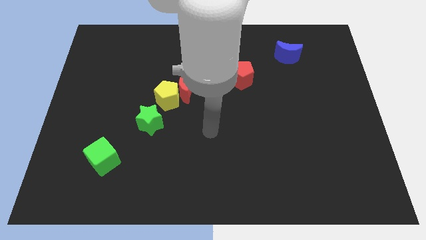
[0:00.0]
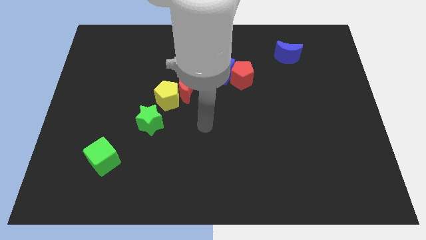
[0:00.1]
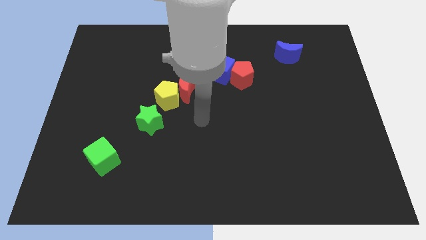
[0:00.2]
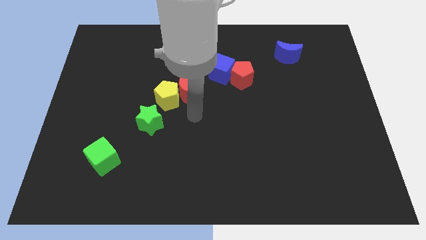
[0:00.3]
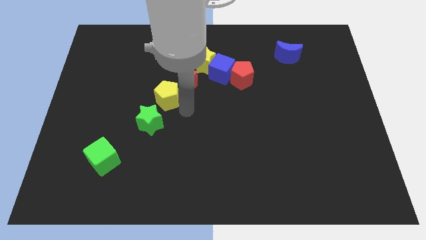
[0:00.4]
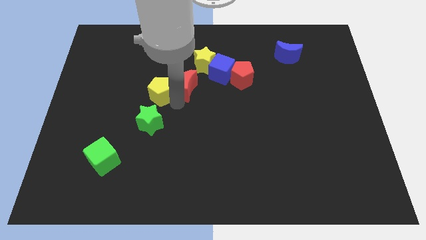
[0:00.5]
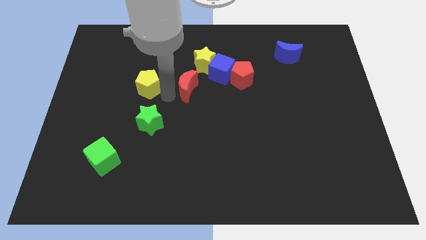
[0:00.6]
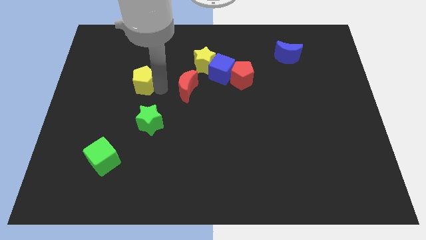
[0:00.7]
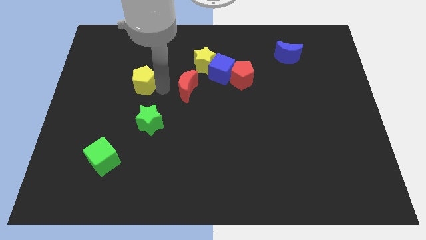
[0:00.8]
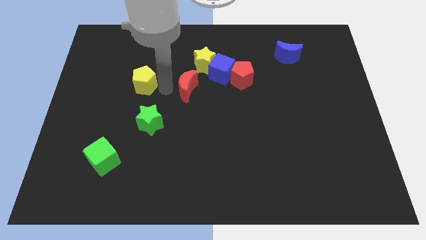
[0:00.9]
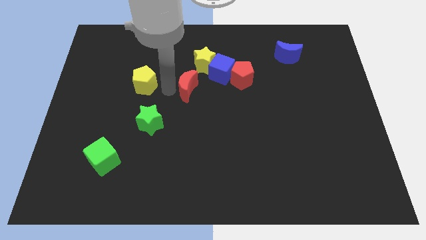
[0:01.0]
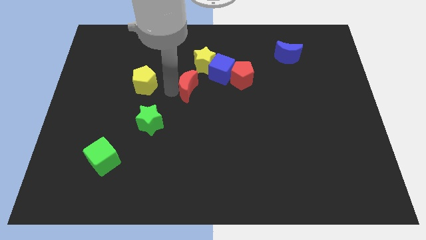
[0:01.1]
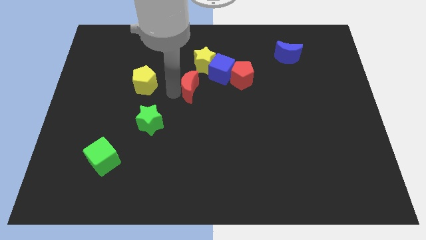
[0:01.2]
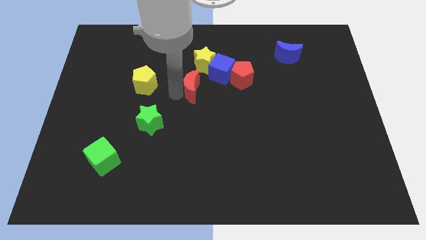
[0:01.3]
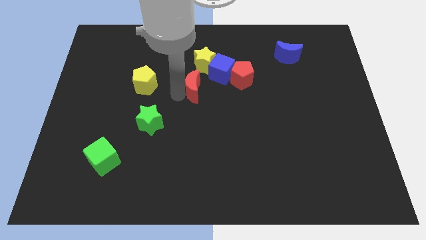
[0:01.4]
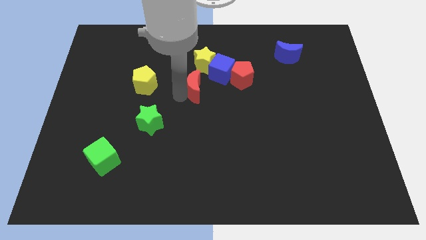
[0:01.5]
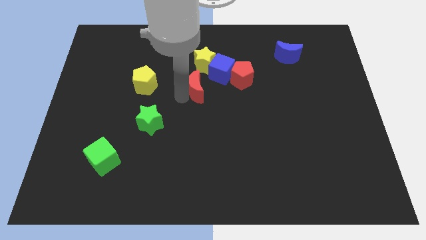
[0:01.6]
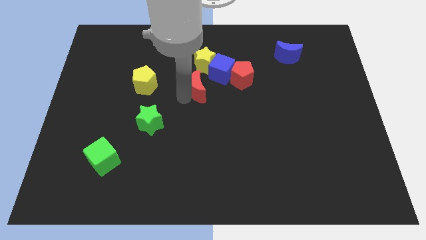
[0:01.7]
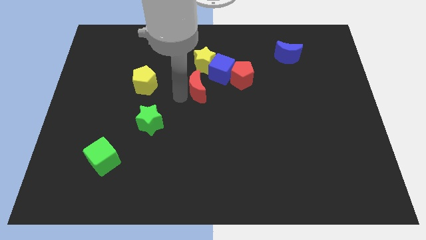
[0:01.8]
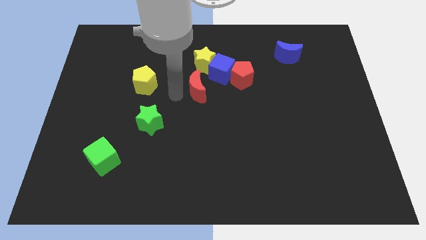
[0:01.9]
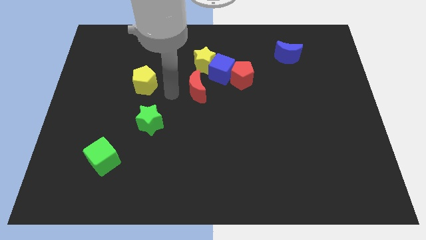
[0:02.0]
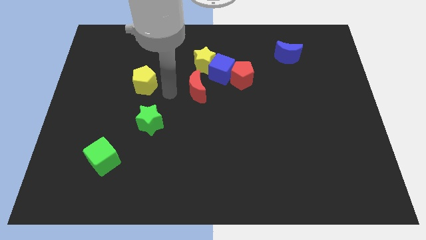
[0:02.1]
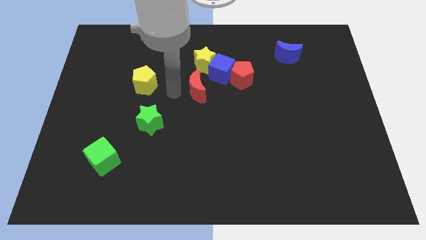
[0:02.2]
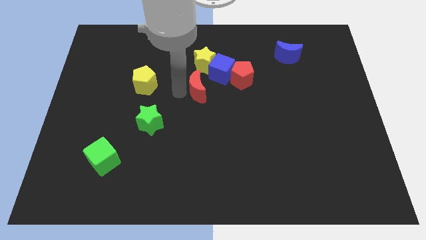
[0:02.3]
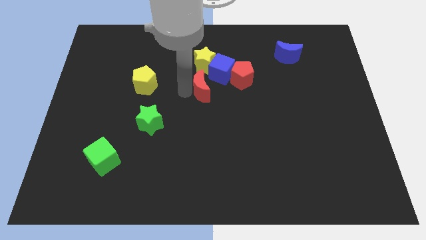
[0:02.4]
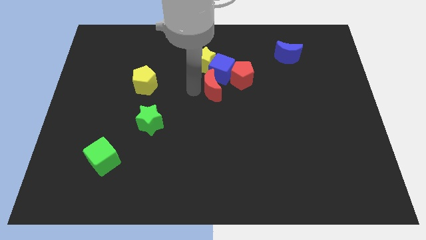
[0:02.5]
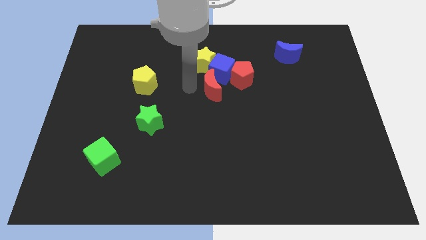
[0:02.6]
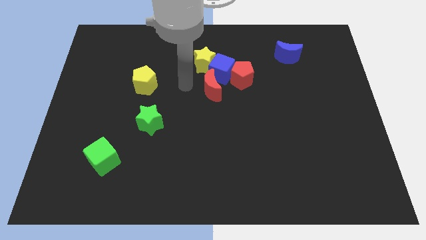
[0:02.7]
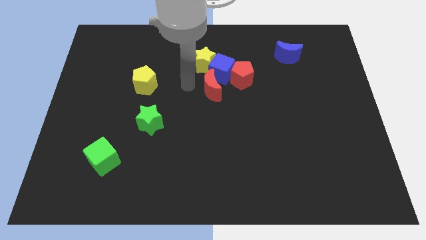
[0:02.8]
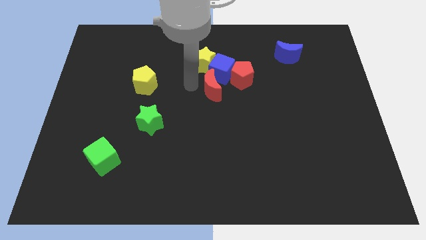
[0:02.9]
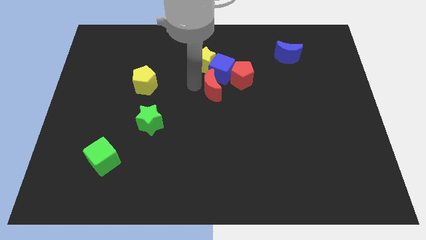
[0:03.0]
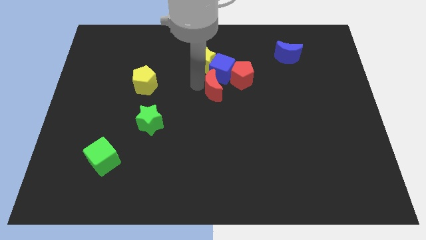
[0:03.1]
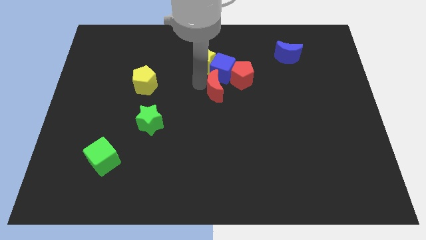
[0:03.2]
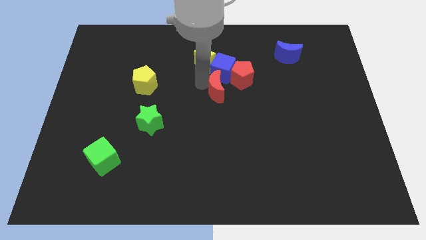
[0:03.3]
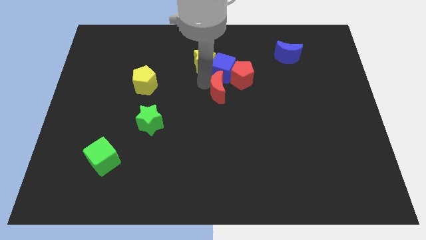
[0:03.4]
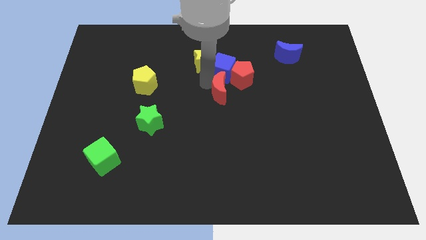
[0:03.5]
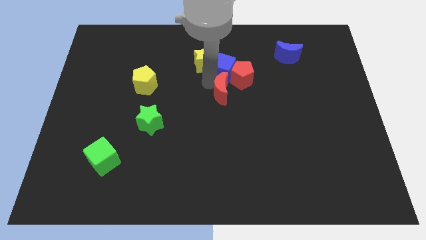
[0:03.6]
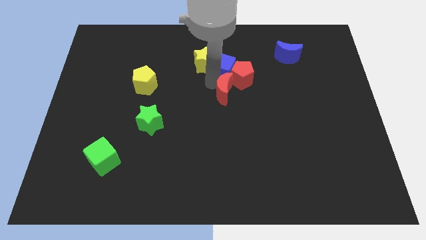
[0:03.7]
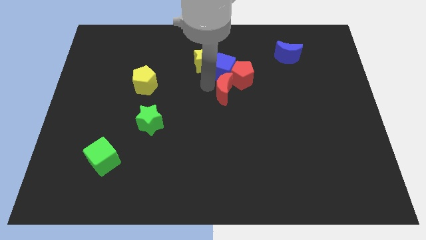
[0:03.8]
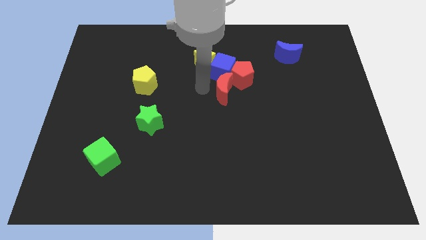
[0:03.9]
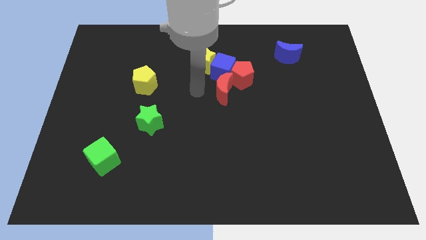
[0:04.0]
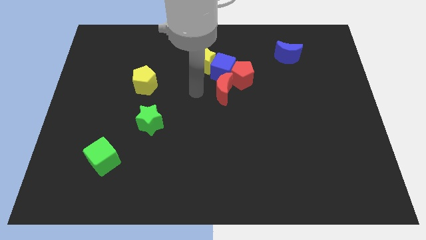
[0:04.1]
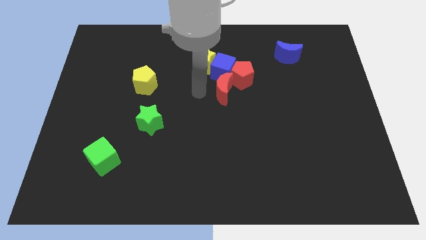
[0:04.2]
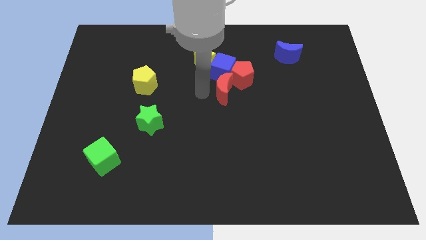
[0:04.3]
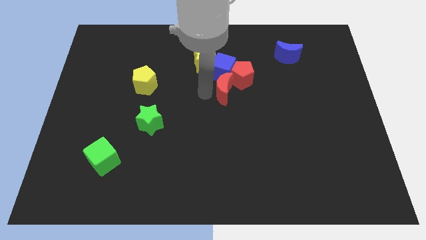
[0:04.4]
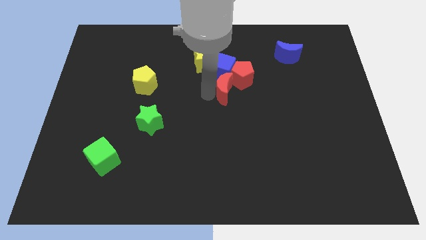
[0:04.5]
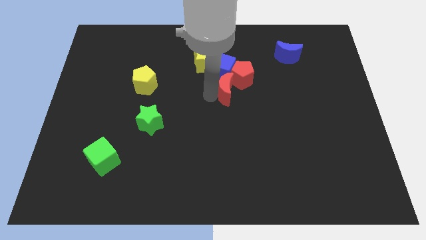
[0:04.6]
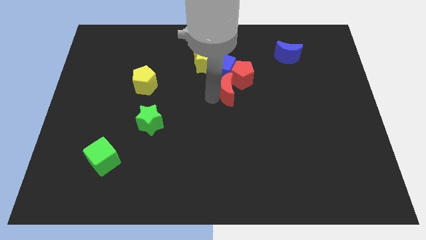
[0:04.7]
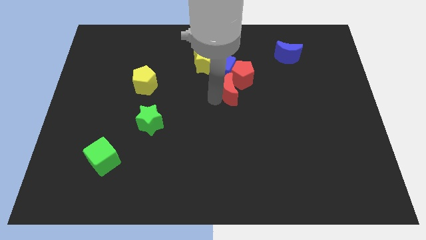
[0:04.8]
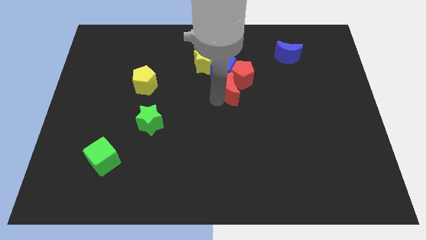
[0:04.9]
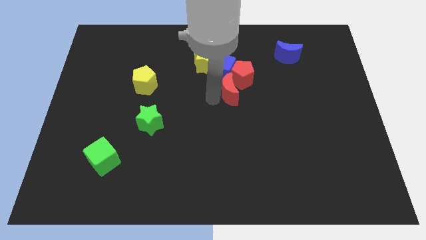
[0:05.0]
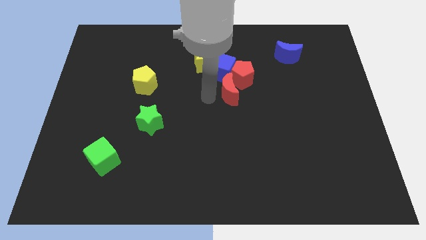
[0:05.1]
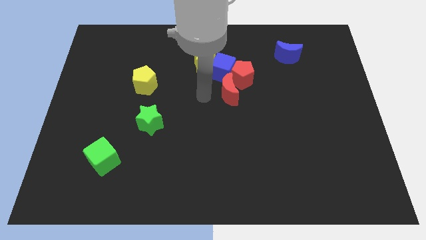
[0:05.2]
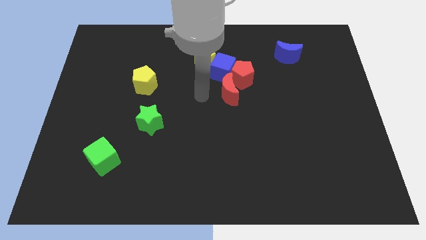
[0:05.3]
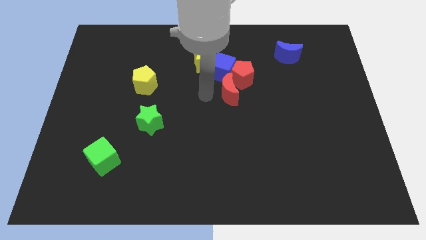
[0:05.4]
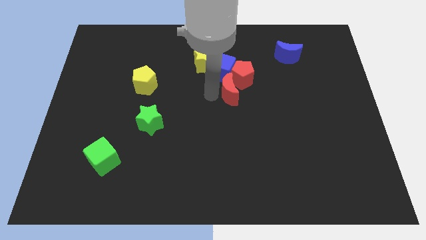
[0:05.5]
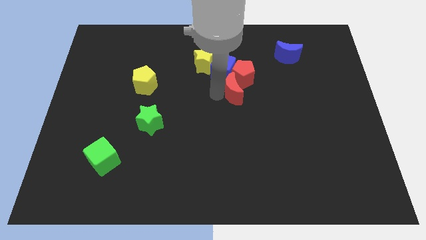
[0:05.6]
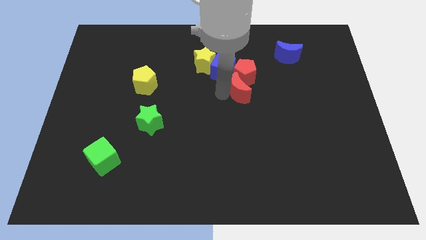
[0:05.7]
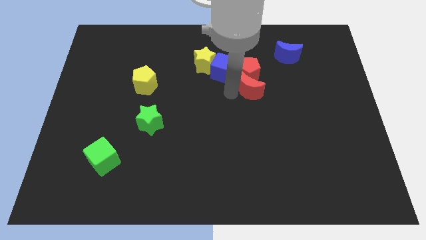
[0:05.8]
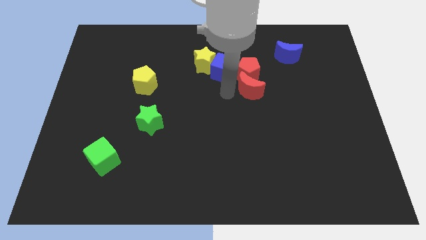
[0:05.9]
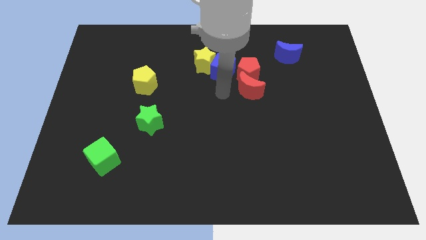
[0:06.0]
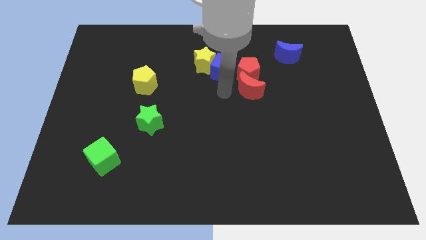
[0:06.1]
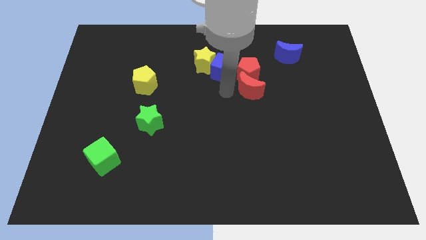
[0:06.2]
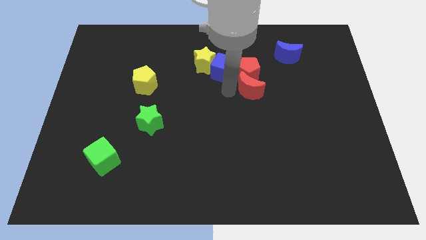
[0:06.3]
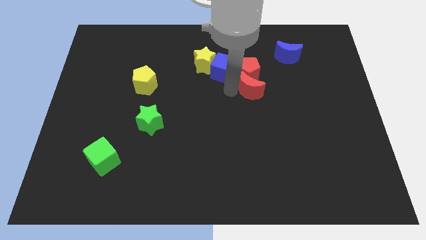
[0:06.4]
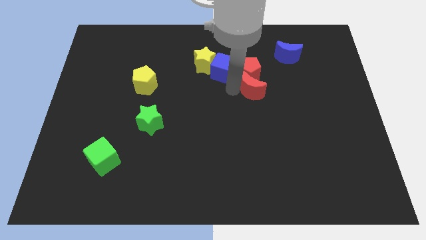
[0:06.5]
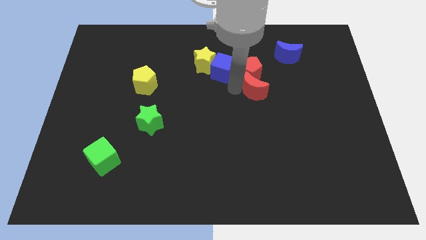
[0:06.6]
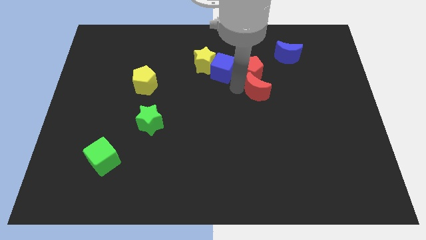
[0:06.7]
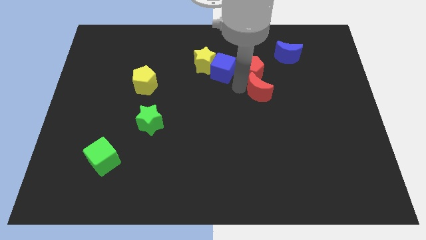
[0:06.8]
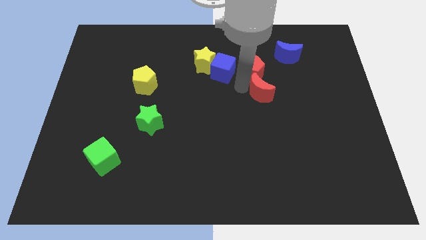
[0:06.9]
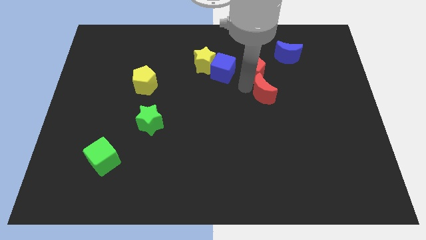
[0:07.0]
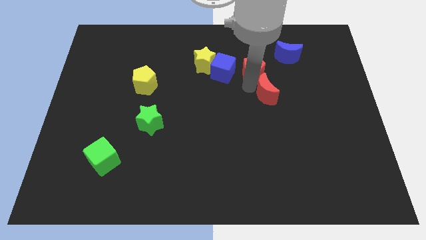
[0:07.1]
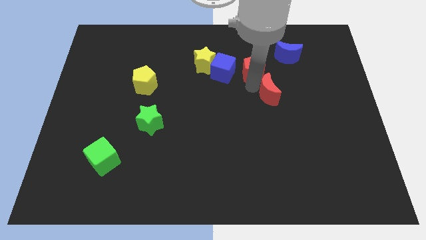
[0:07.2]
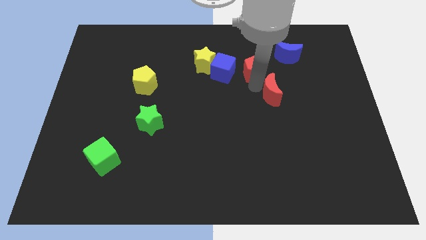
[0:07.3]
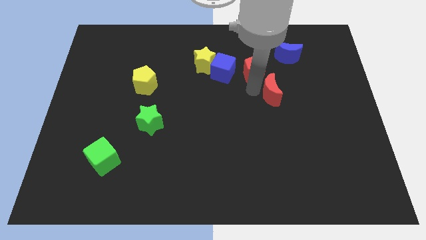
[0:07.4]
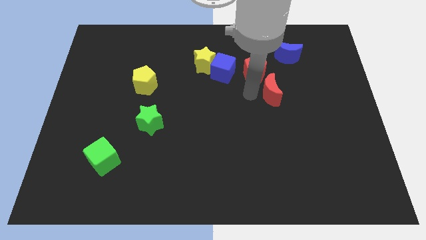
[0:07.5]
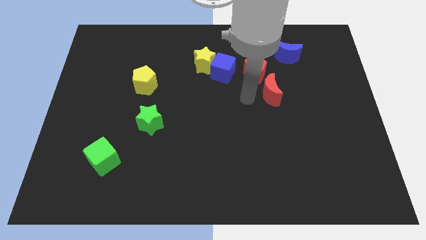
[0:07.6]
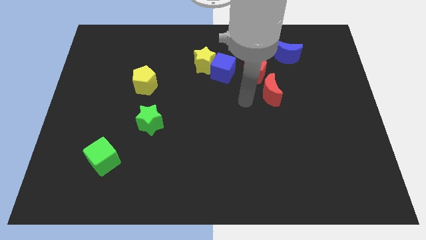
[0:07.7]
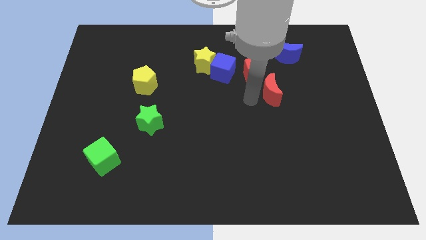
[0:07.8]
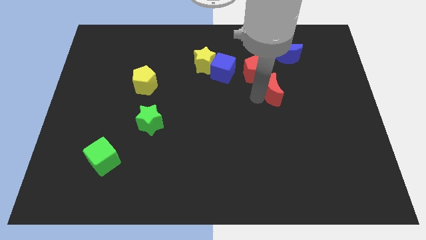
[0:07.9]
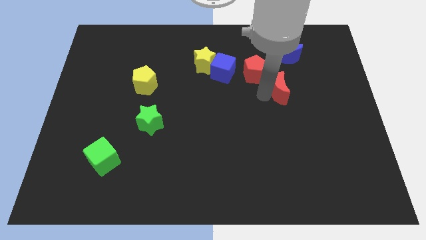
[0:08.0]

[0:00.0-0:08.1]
move the red moon to the bottom of the blue moon
